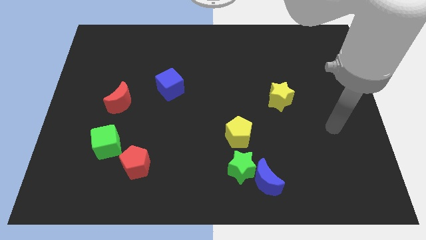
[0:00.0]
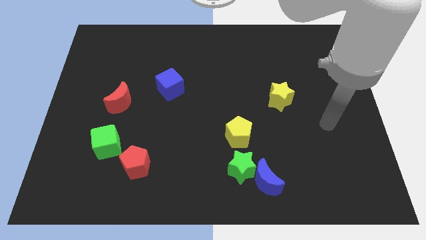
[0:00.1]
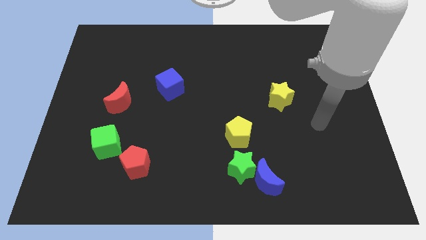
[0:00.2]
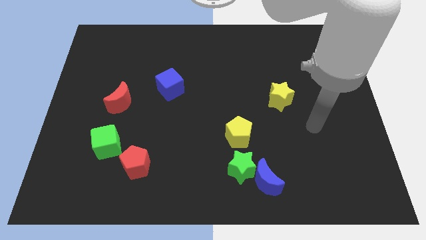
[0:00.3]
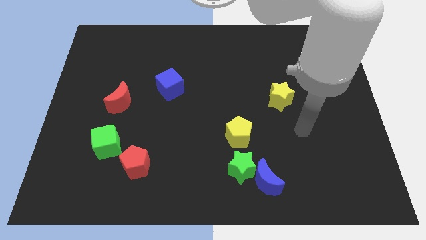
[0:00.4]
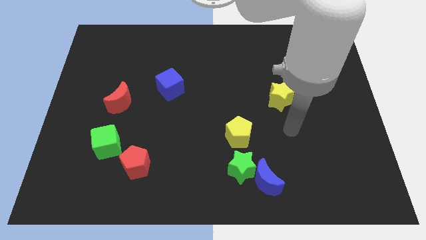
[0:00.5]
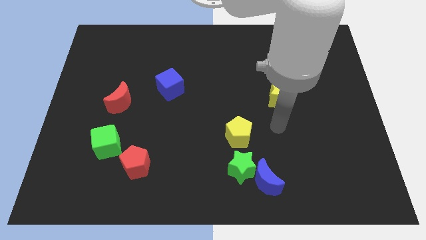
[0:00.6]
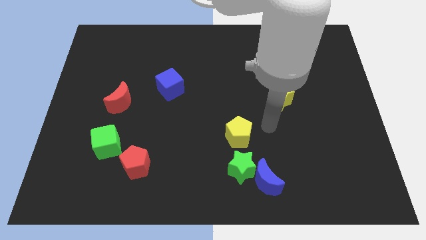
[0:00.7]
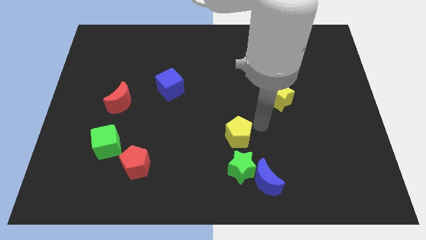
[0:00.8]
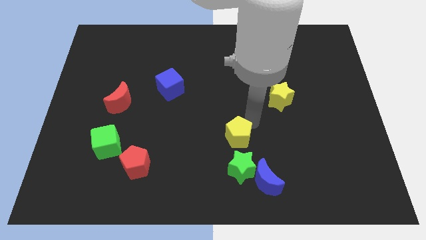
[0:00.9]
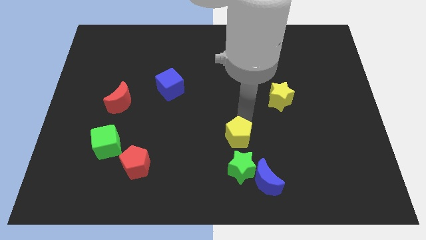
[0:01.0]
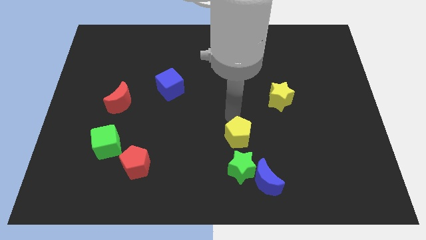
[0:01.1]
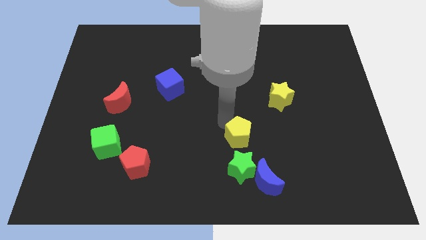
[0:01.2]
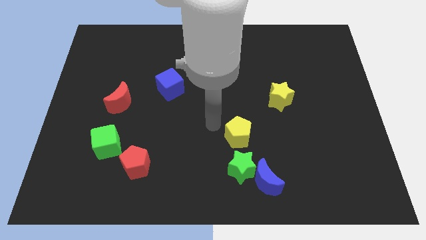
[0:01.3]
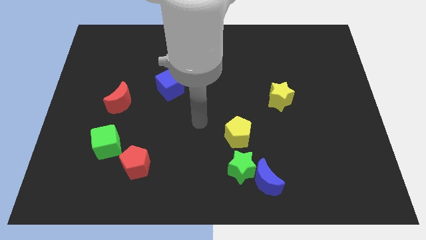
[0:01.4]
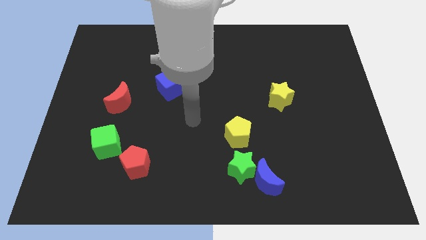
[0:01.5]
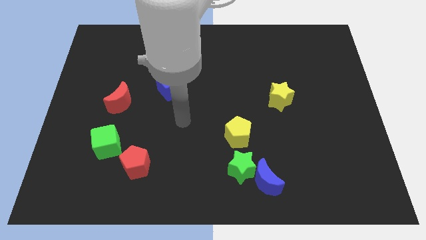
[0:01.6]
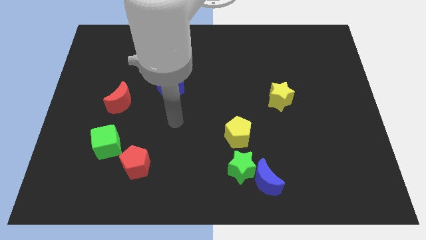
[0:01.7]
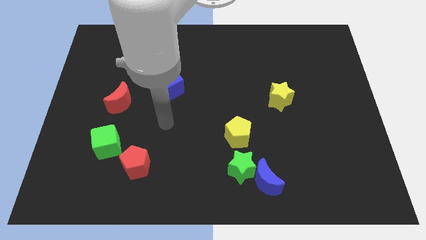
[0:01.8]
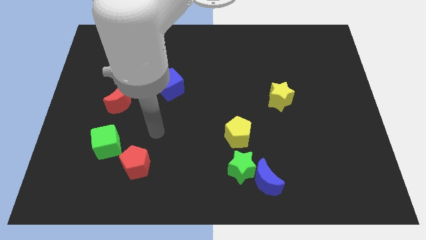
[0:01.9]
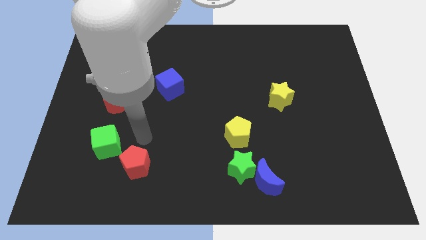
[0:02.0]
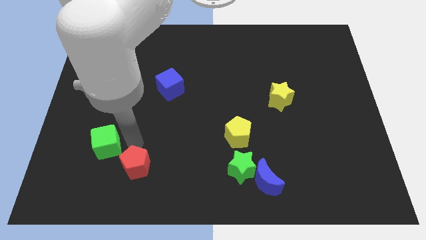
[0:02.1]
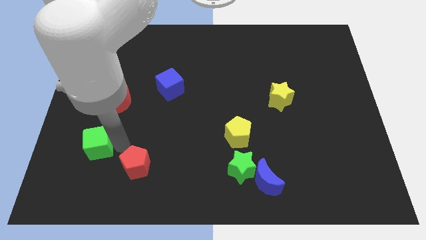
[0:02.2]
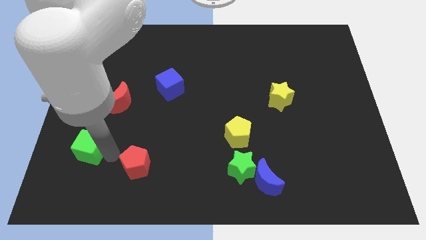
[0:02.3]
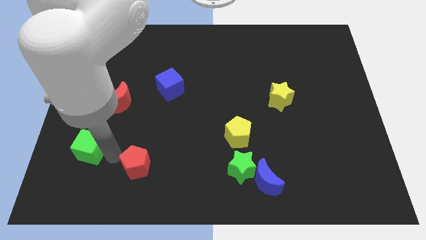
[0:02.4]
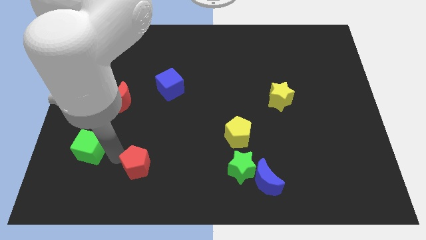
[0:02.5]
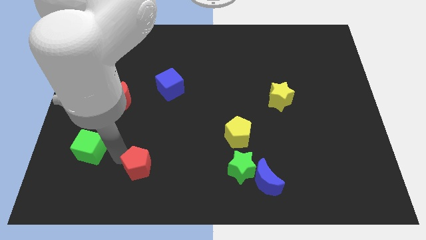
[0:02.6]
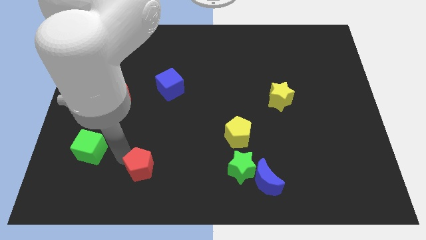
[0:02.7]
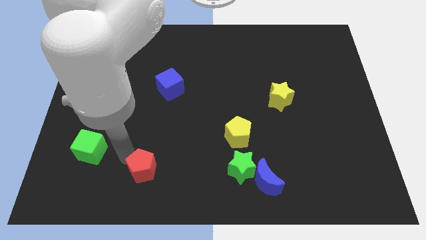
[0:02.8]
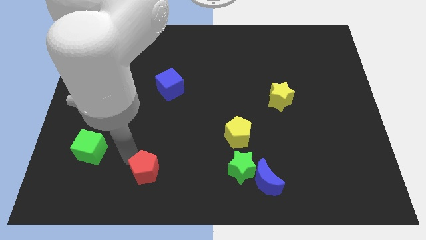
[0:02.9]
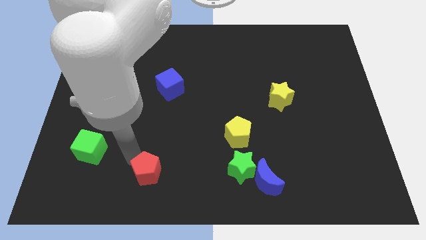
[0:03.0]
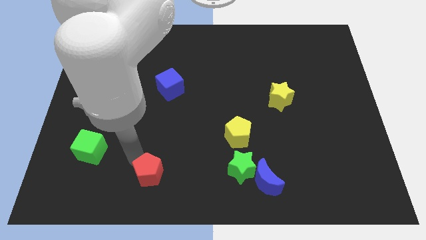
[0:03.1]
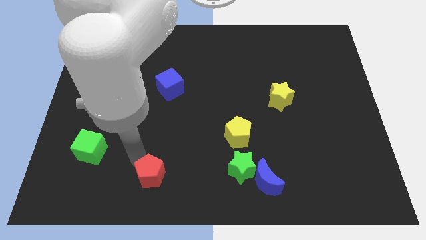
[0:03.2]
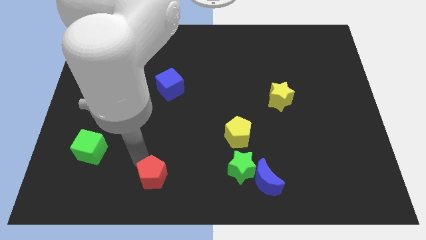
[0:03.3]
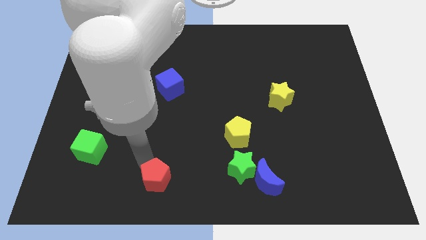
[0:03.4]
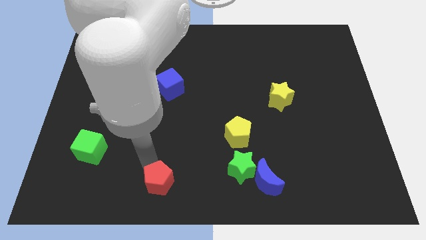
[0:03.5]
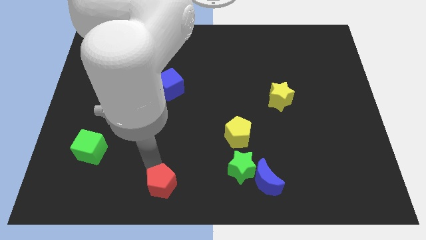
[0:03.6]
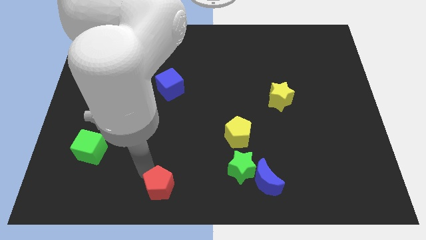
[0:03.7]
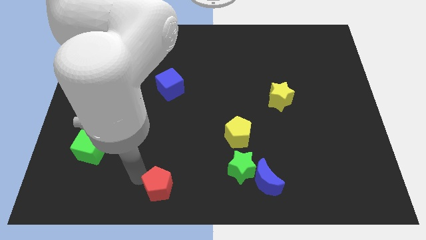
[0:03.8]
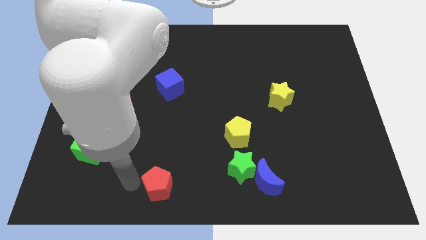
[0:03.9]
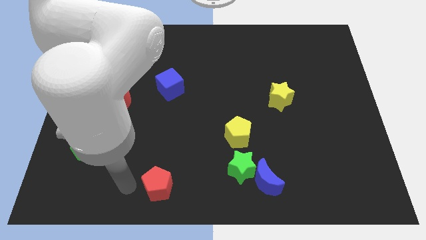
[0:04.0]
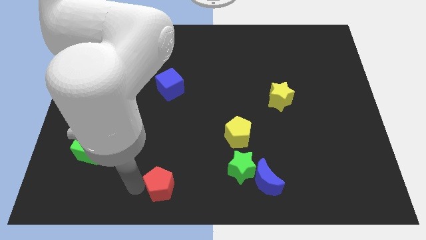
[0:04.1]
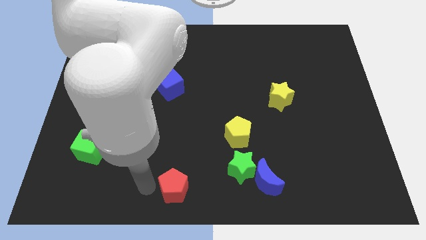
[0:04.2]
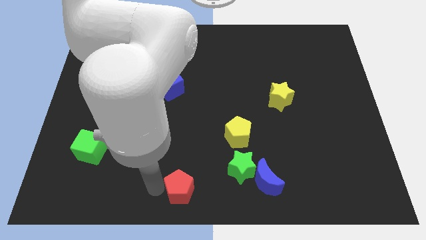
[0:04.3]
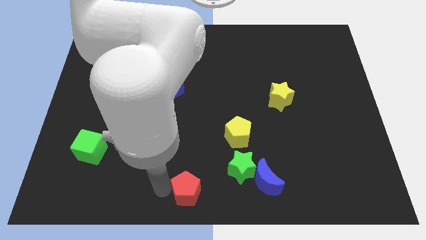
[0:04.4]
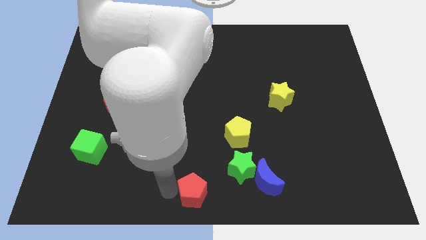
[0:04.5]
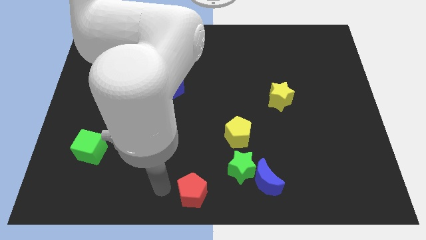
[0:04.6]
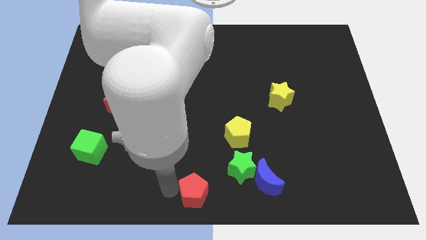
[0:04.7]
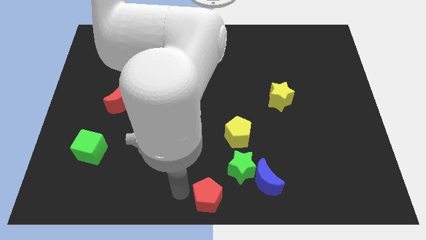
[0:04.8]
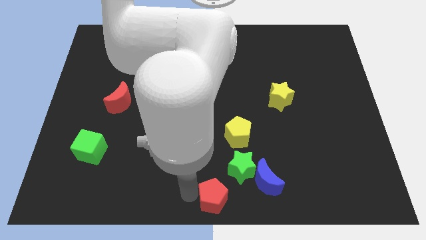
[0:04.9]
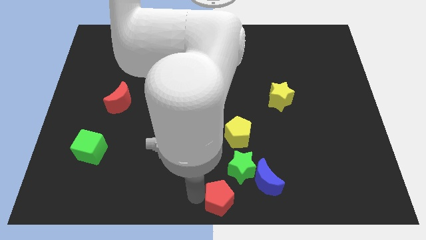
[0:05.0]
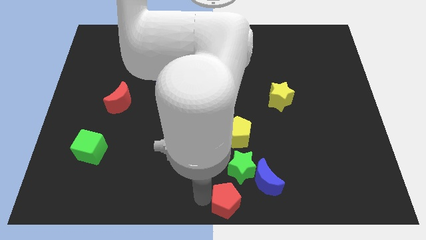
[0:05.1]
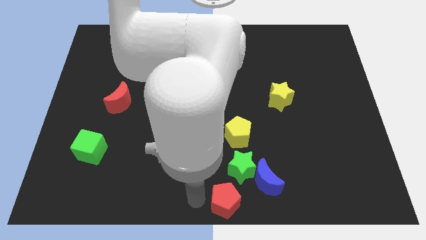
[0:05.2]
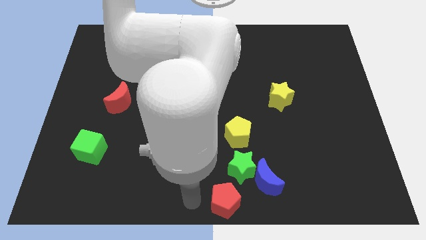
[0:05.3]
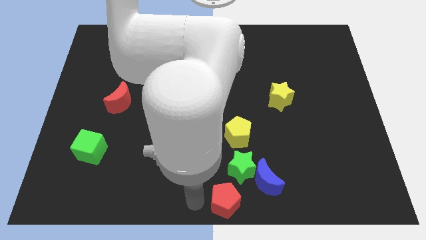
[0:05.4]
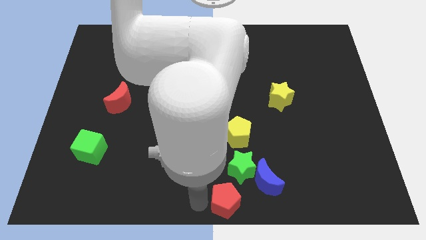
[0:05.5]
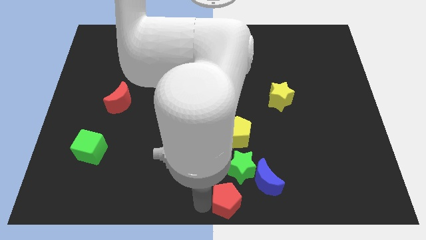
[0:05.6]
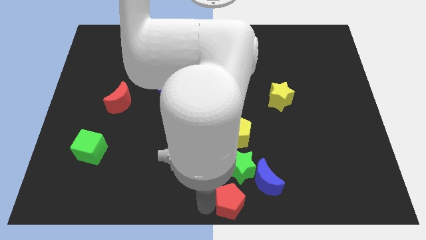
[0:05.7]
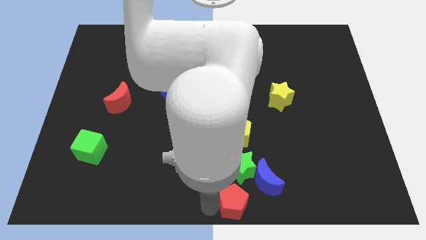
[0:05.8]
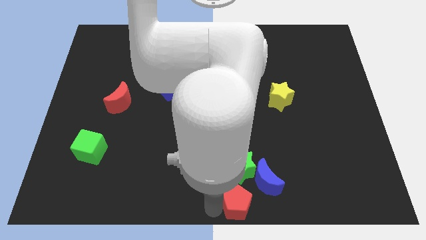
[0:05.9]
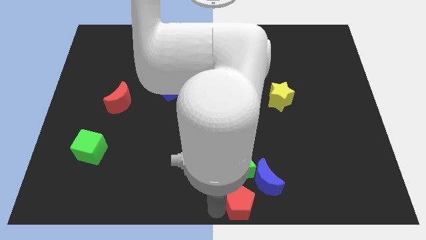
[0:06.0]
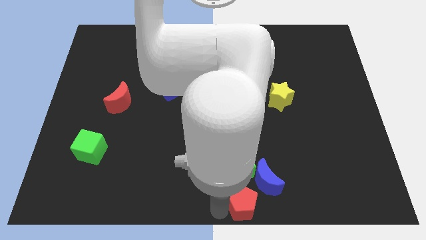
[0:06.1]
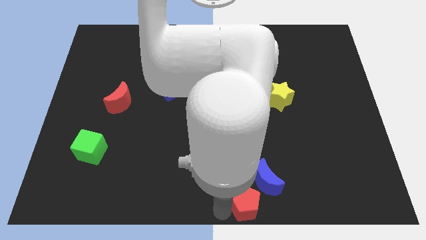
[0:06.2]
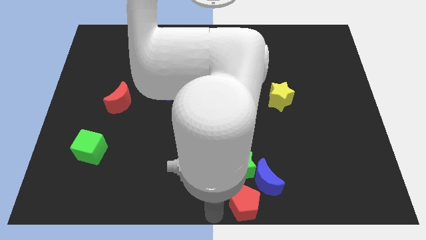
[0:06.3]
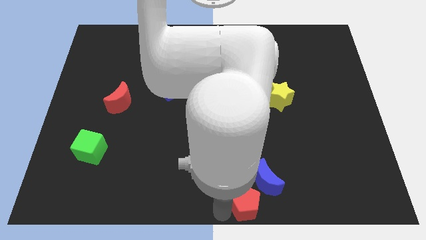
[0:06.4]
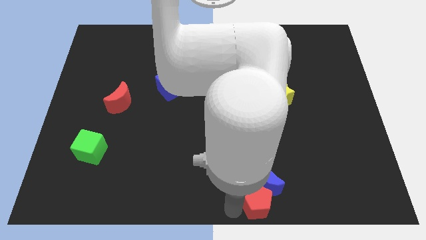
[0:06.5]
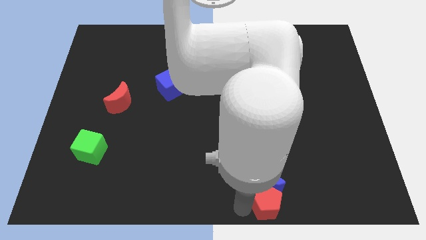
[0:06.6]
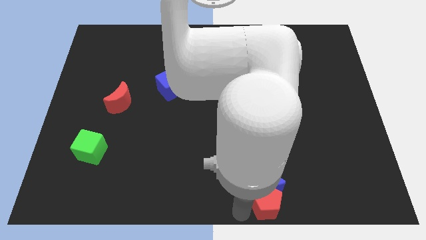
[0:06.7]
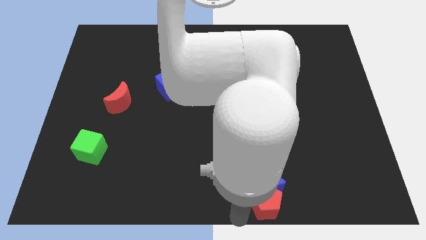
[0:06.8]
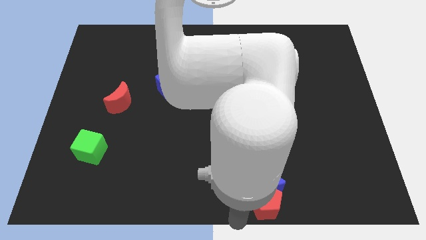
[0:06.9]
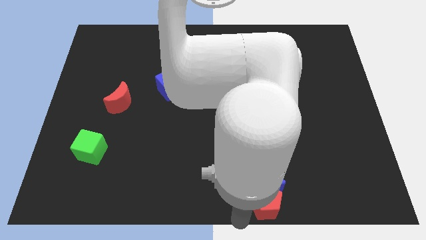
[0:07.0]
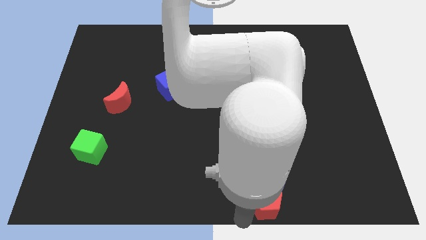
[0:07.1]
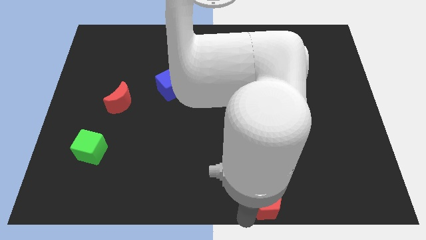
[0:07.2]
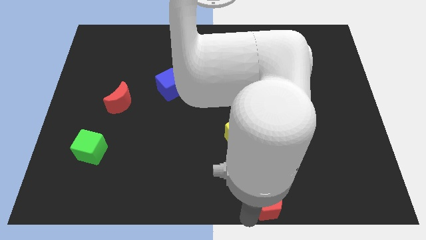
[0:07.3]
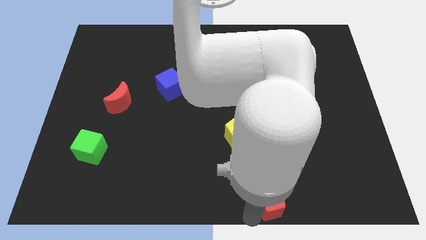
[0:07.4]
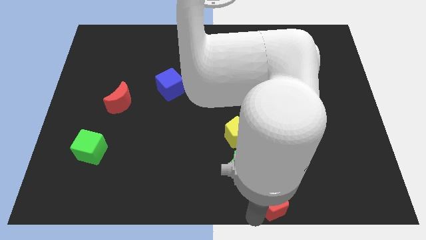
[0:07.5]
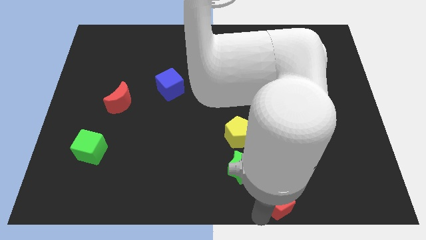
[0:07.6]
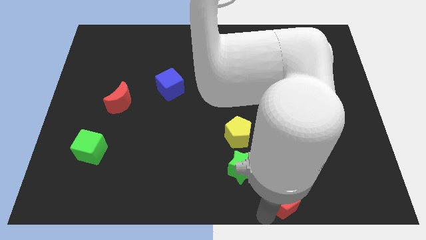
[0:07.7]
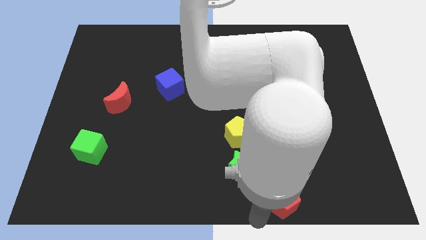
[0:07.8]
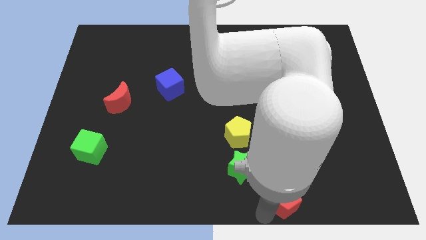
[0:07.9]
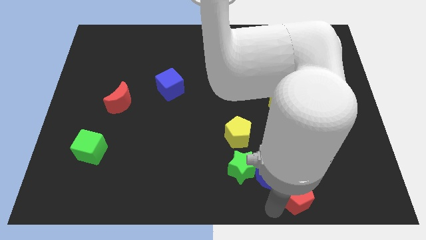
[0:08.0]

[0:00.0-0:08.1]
put the red pentagon to the right side of the blue moon
